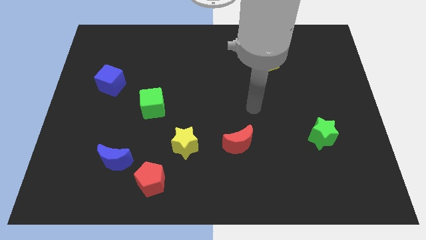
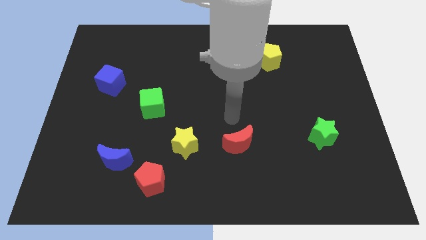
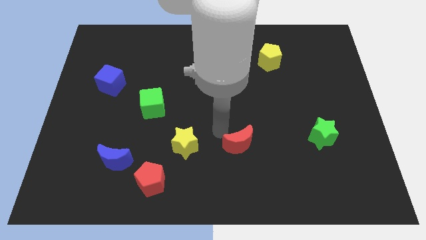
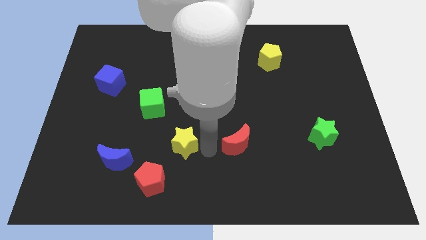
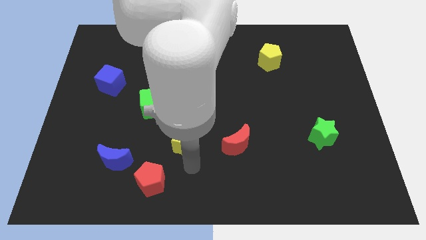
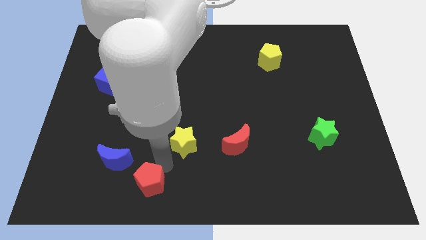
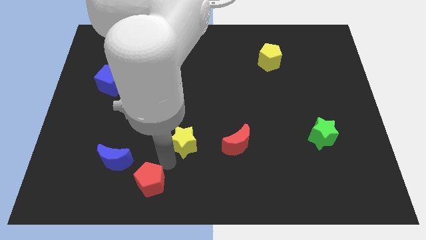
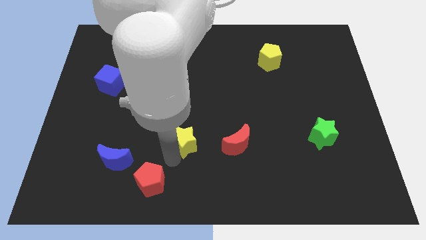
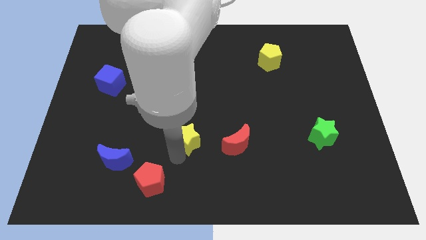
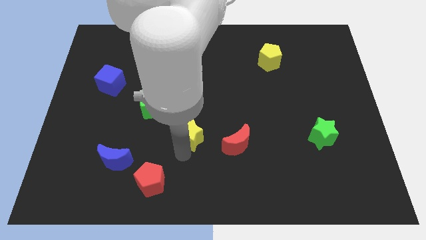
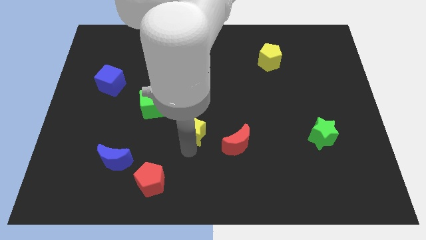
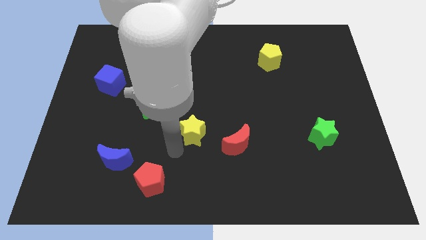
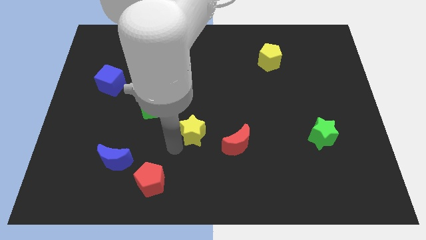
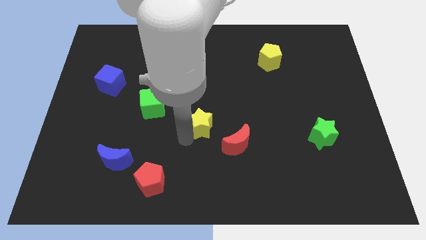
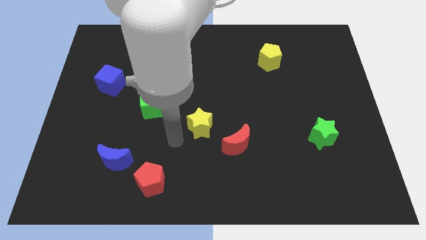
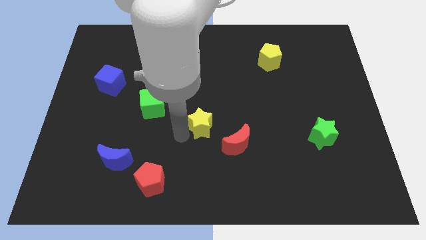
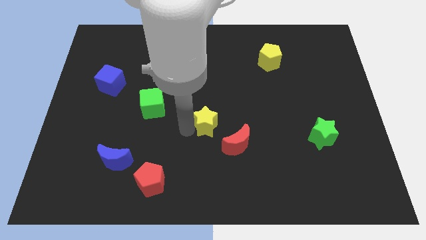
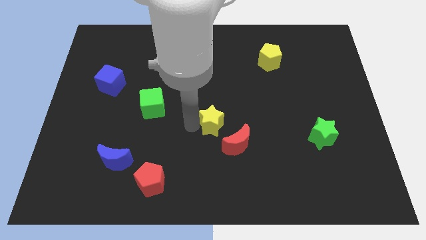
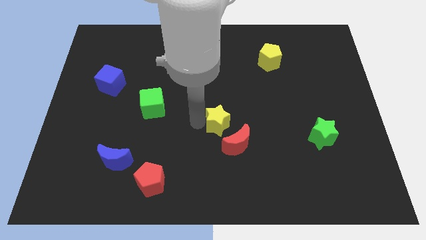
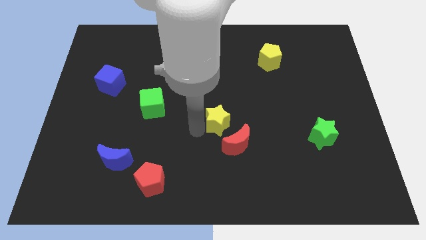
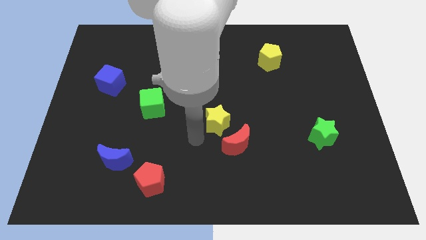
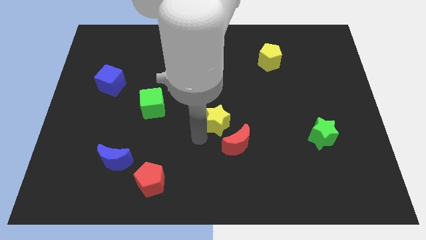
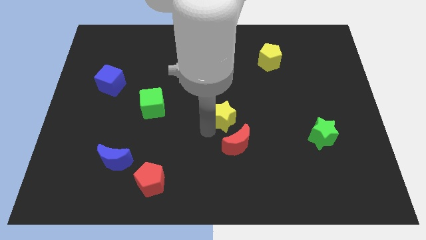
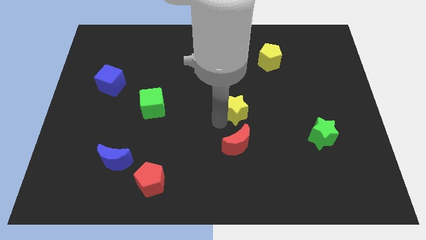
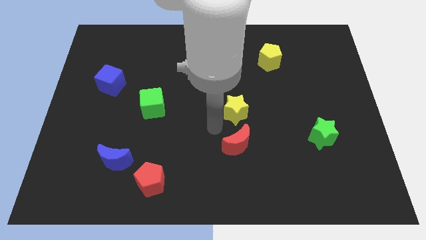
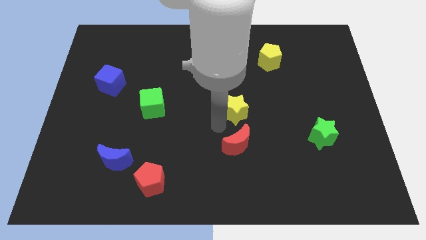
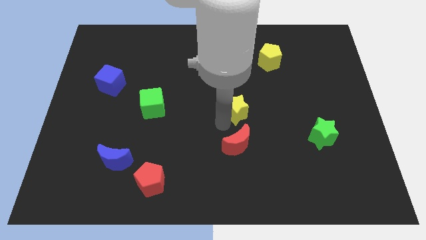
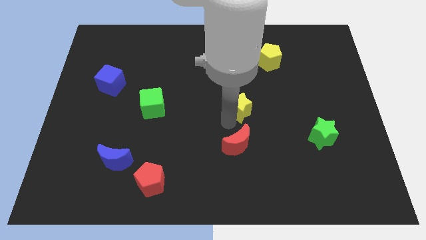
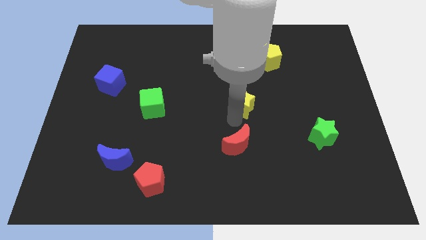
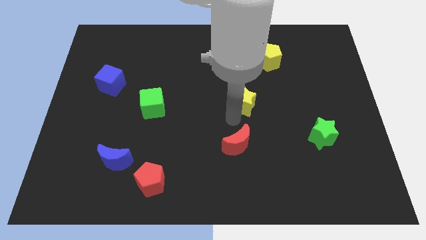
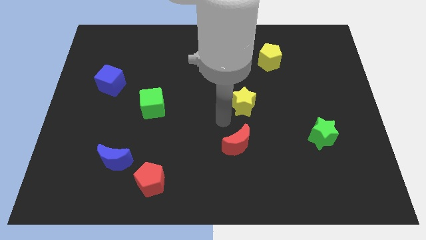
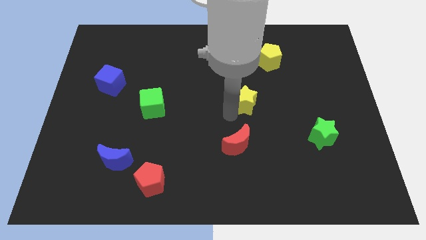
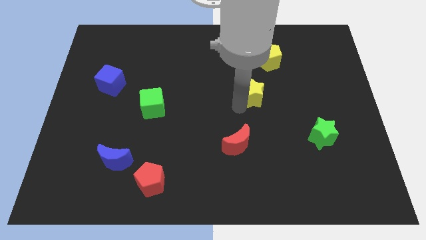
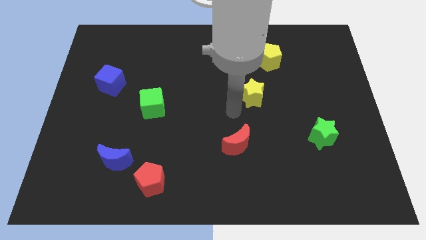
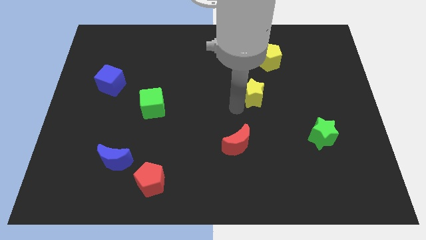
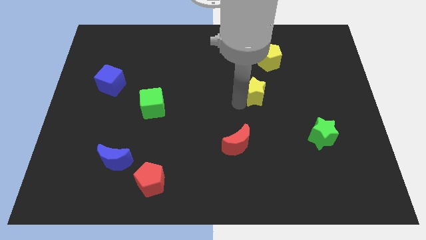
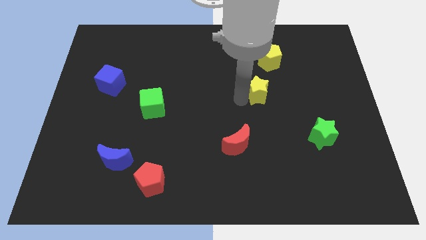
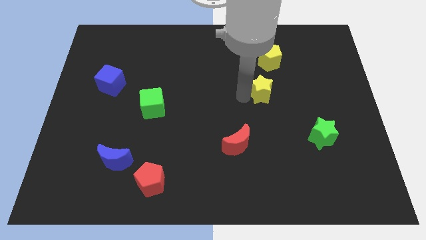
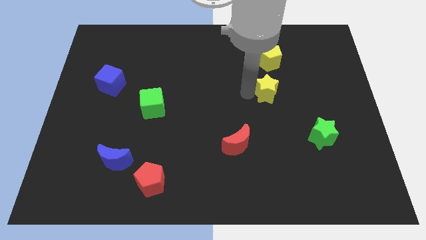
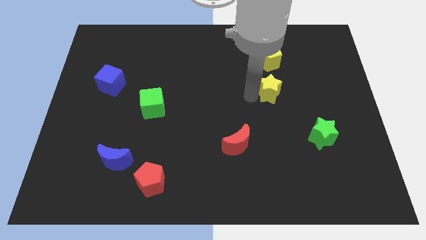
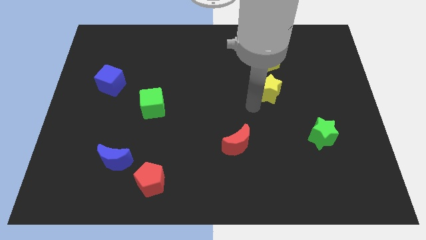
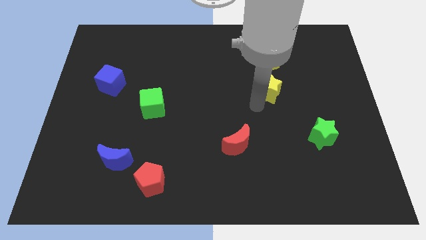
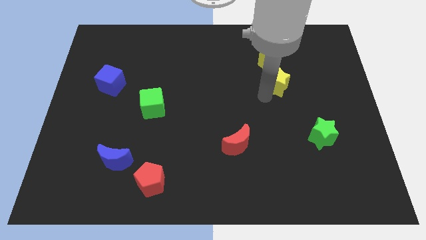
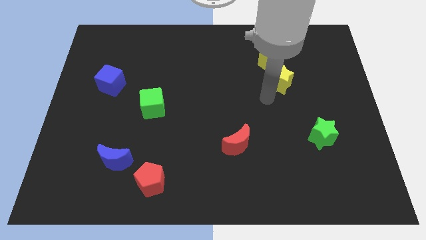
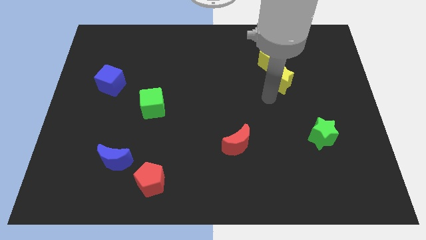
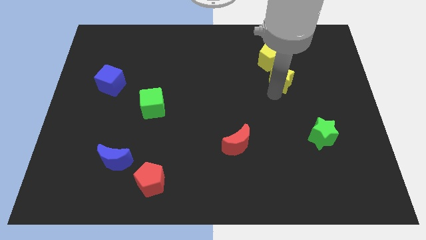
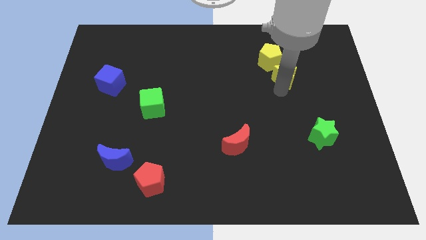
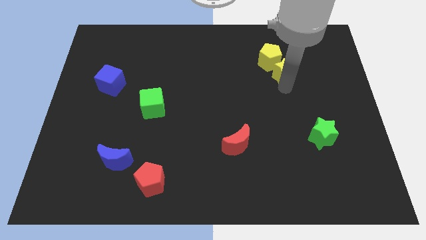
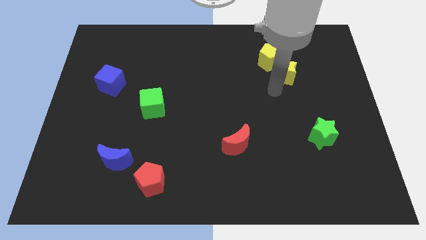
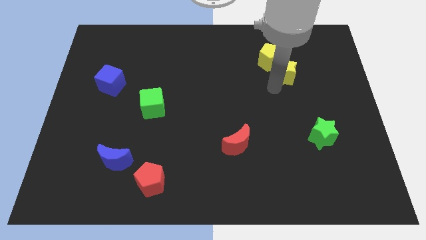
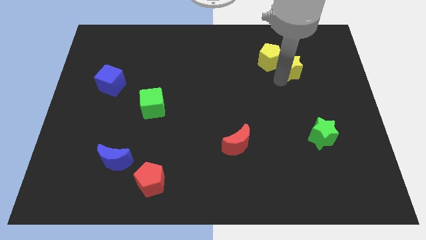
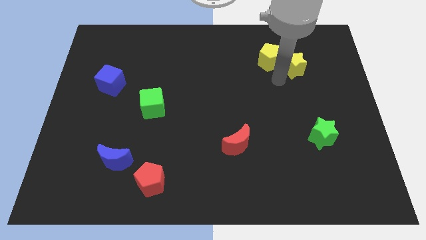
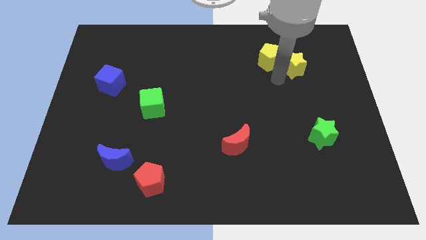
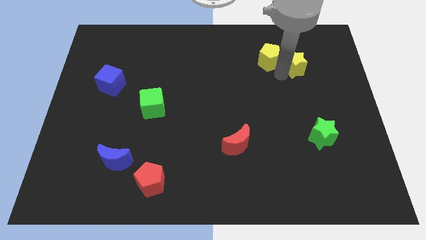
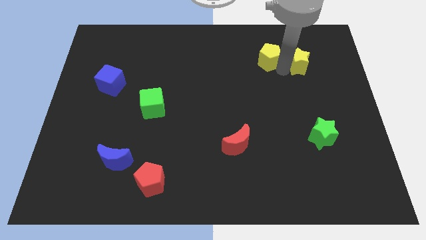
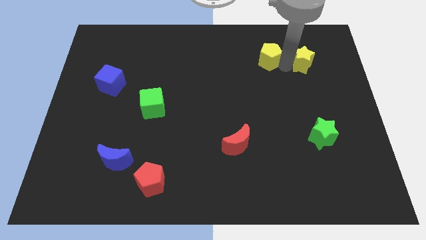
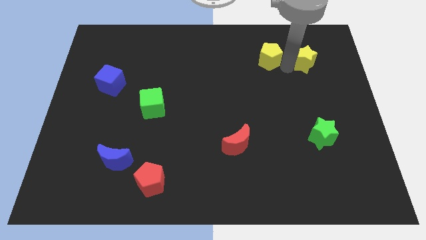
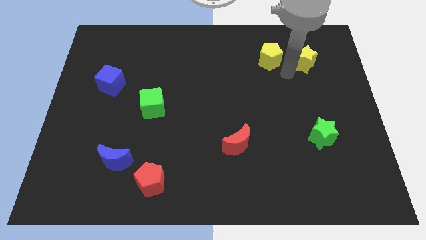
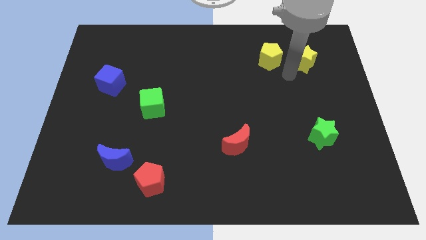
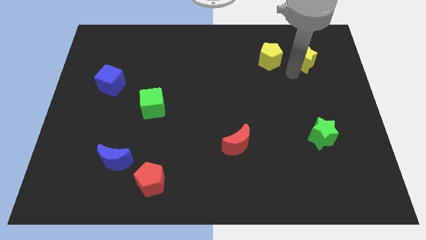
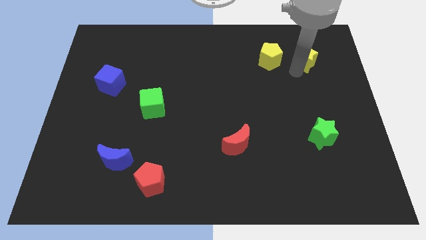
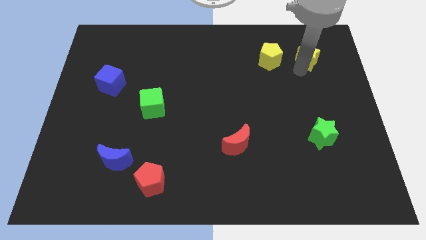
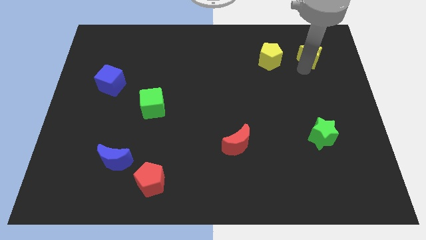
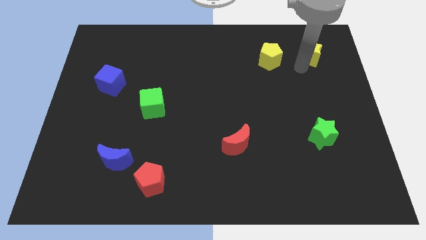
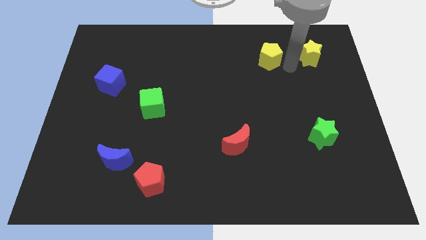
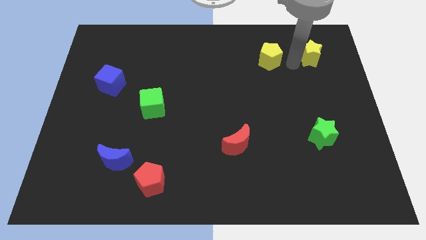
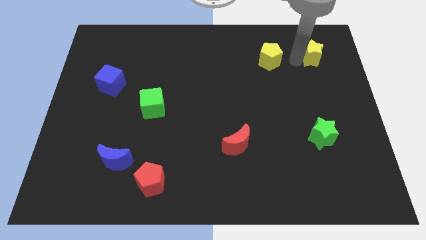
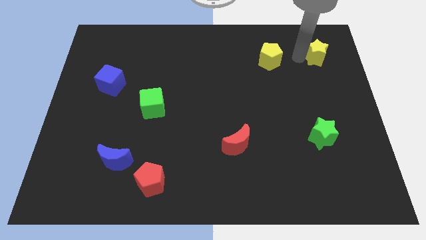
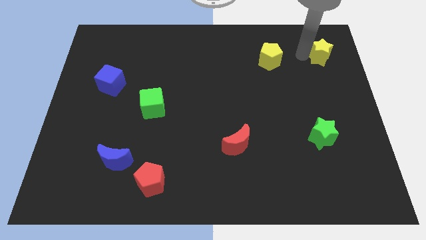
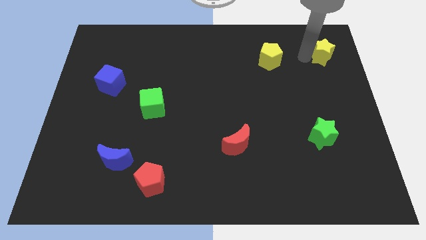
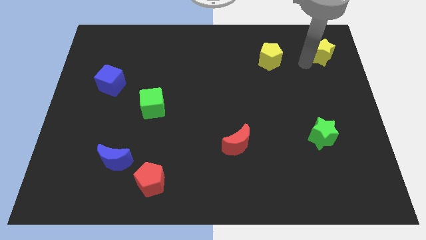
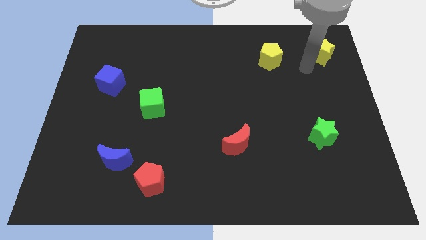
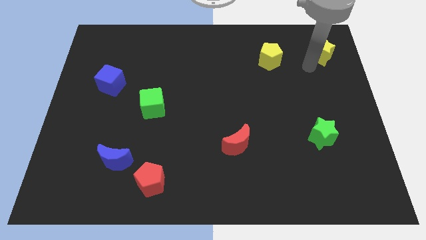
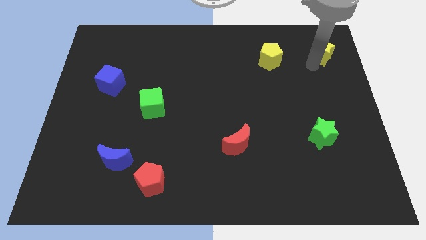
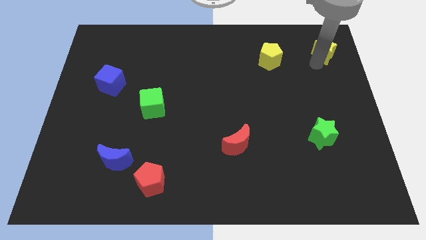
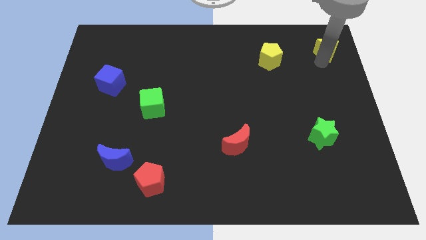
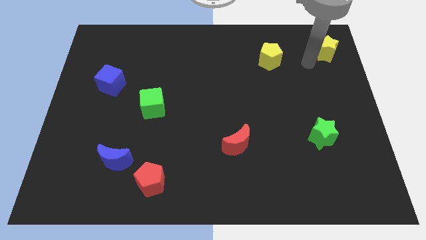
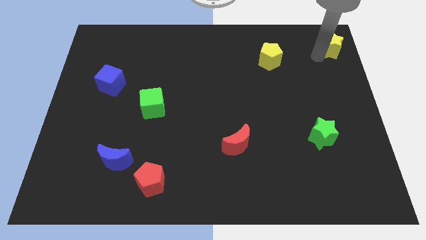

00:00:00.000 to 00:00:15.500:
slide the yellow star to the top right
